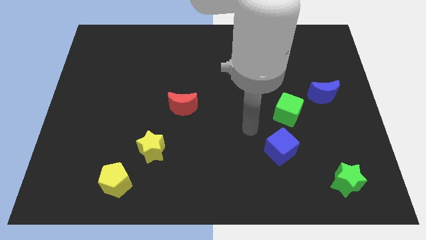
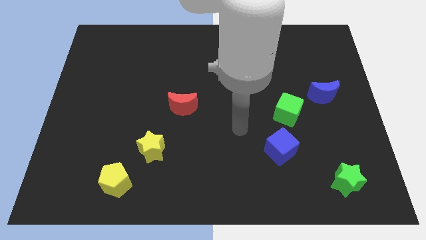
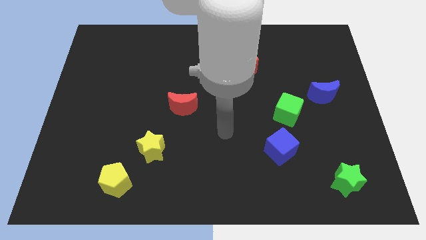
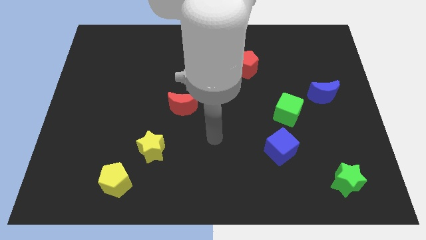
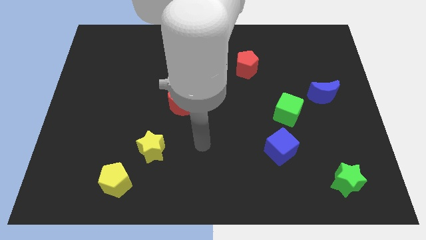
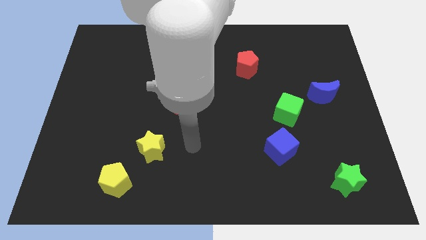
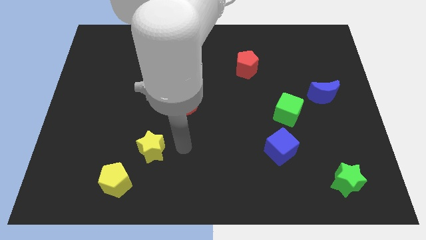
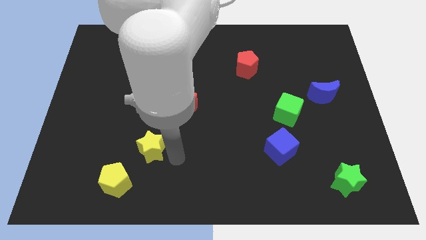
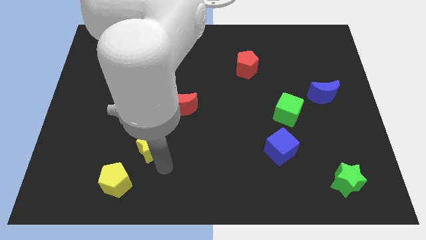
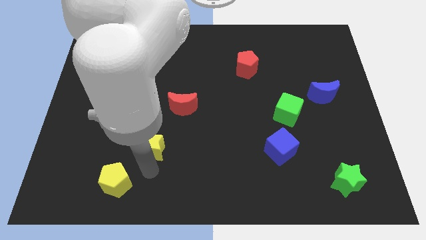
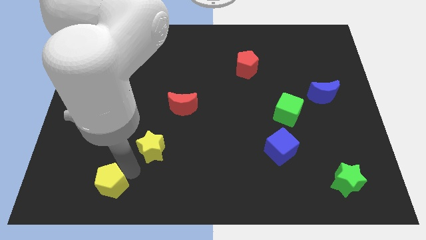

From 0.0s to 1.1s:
pull the yellow star apart from the yellow pentagon
